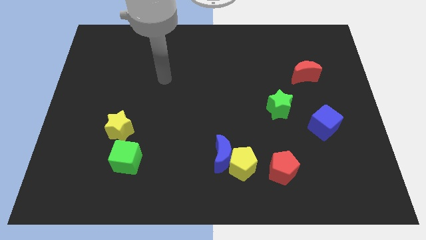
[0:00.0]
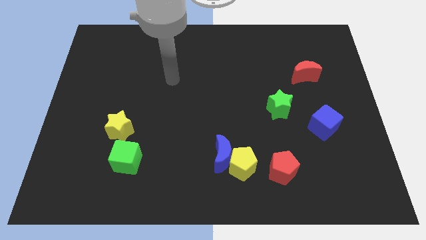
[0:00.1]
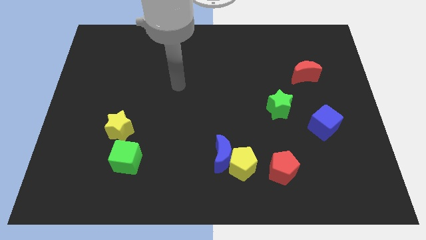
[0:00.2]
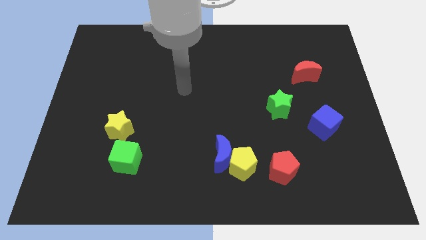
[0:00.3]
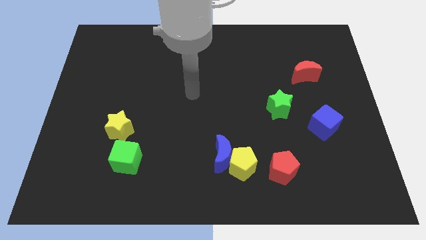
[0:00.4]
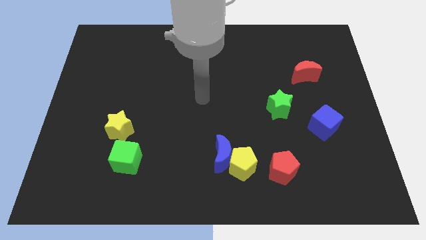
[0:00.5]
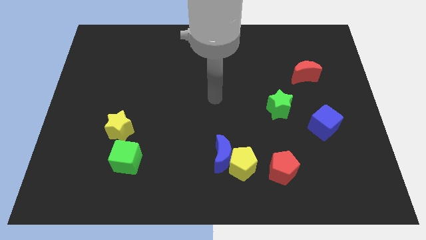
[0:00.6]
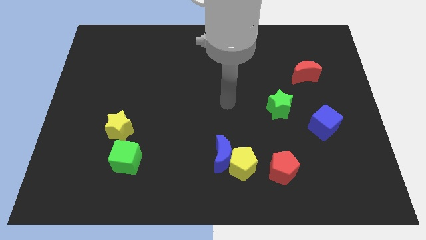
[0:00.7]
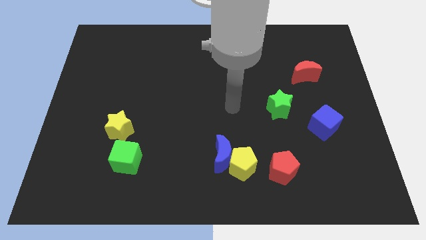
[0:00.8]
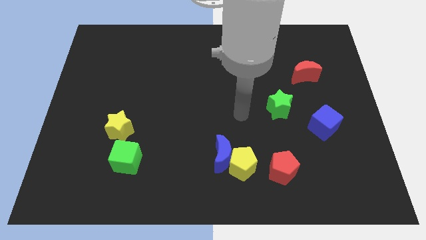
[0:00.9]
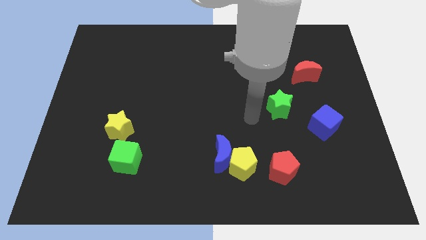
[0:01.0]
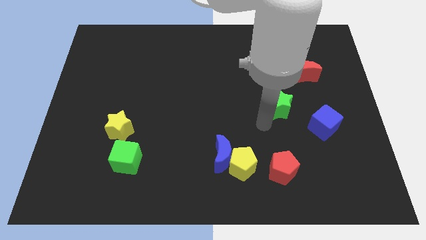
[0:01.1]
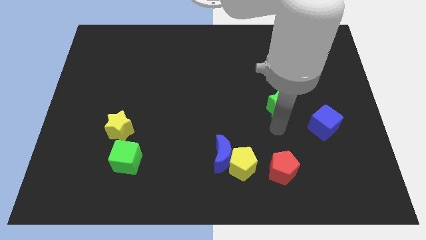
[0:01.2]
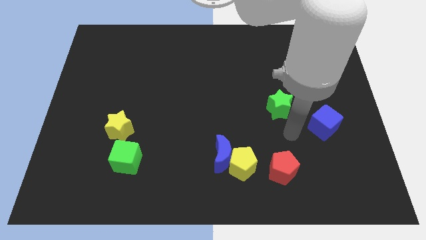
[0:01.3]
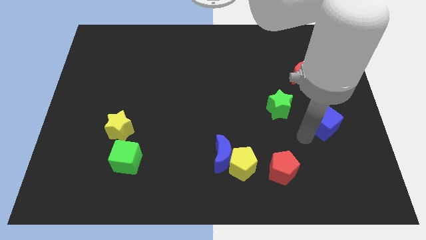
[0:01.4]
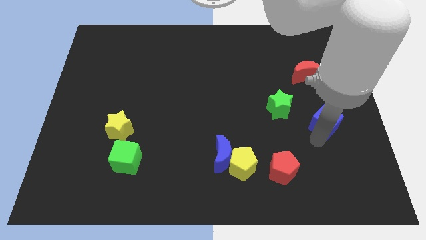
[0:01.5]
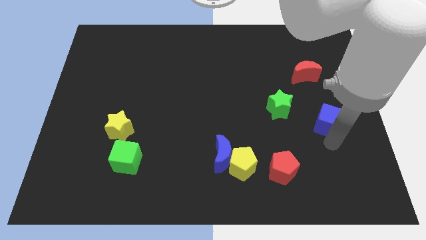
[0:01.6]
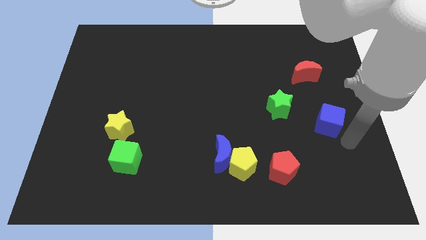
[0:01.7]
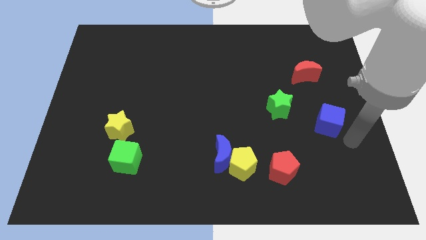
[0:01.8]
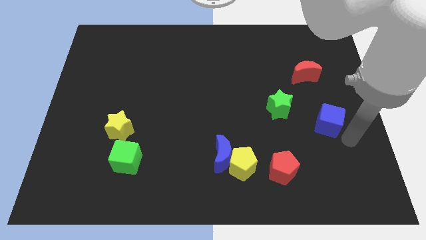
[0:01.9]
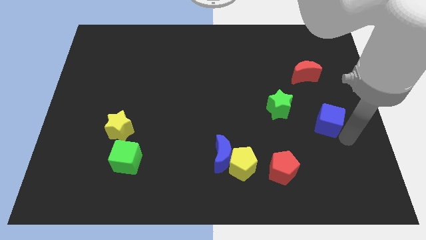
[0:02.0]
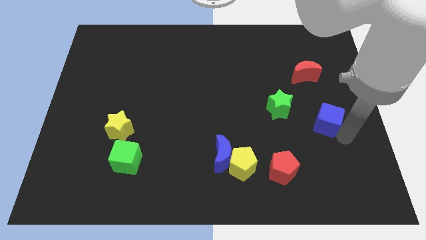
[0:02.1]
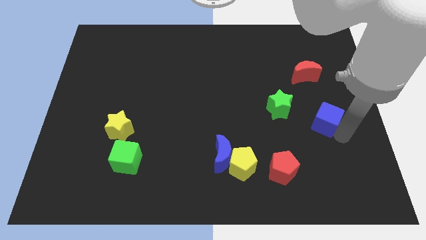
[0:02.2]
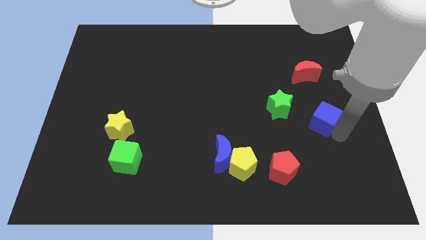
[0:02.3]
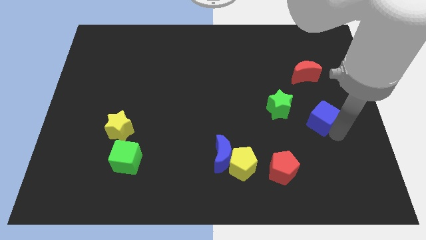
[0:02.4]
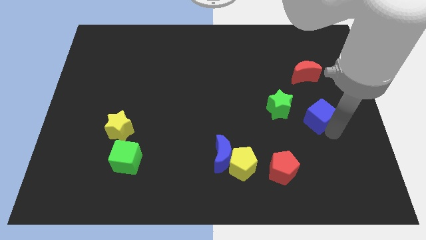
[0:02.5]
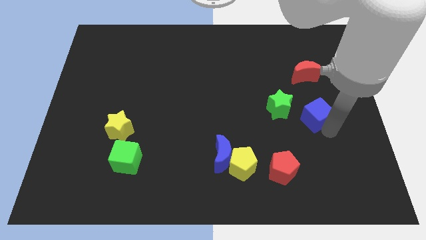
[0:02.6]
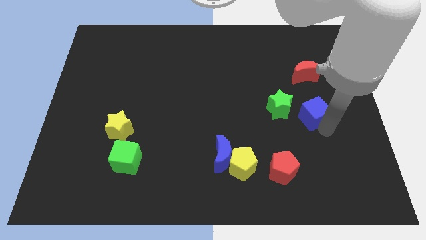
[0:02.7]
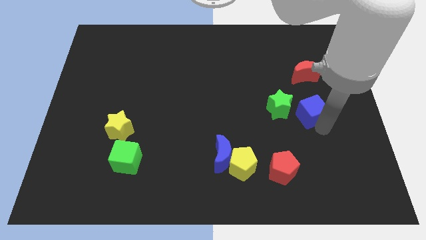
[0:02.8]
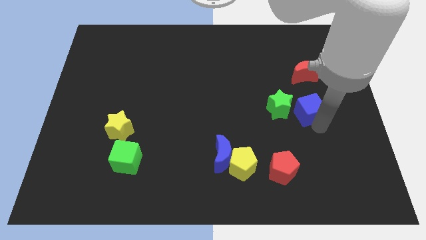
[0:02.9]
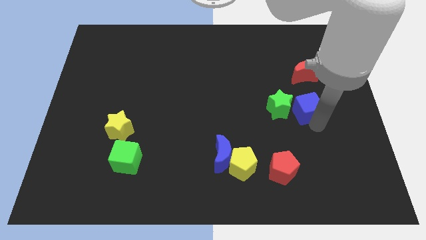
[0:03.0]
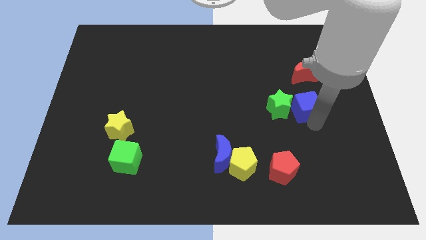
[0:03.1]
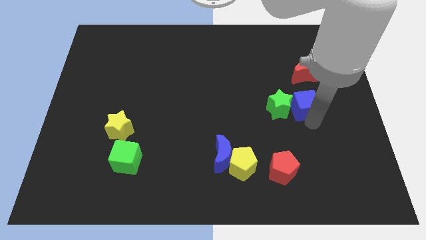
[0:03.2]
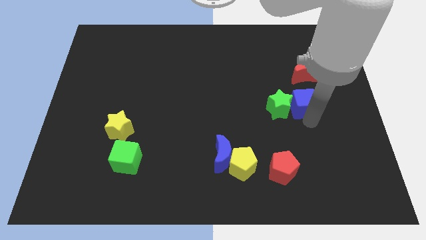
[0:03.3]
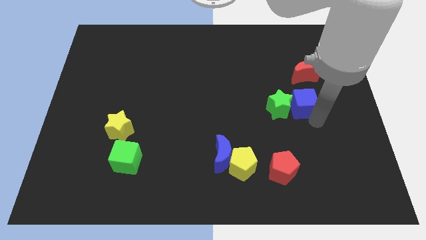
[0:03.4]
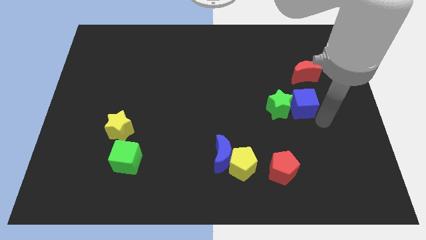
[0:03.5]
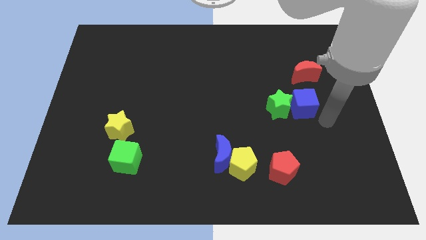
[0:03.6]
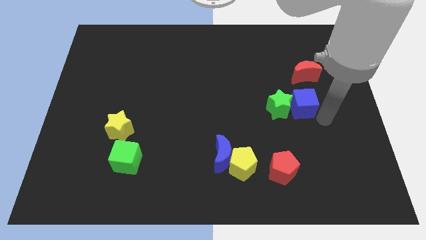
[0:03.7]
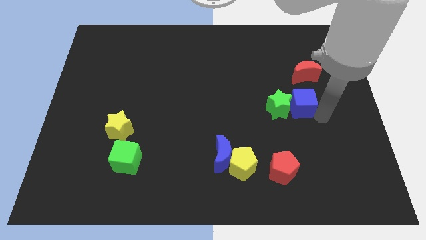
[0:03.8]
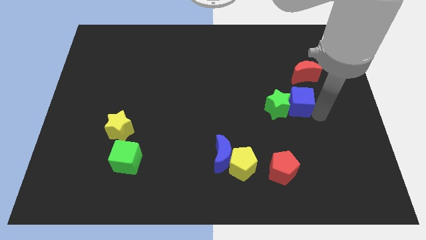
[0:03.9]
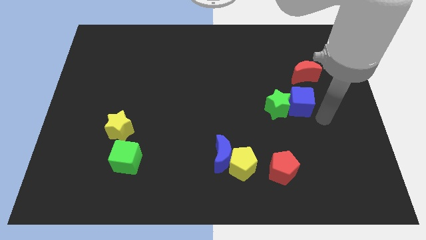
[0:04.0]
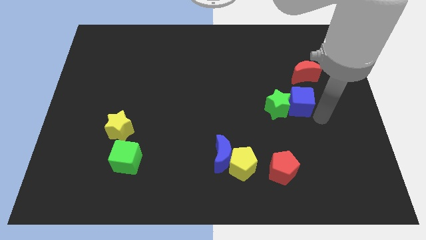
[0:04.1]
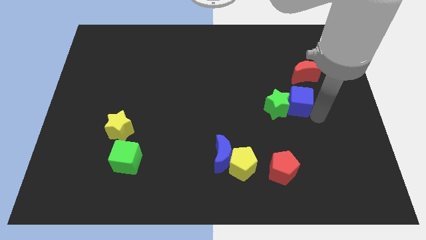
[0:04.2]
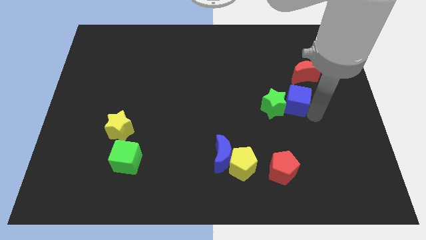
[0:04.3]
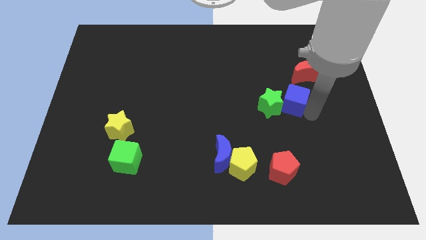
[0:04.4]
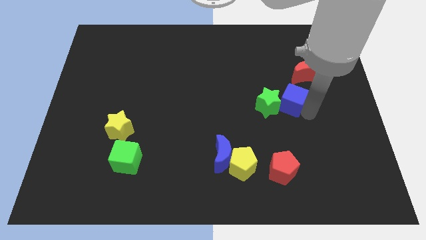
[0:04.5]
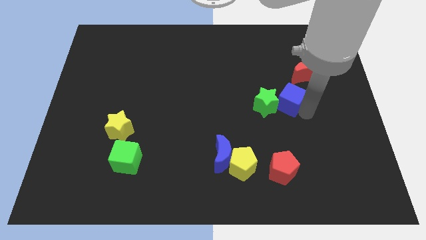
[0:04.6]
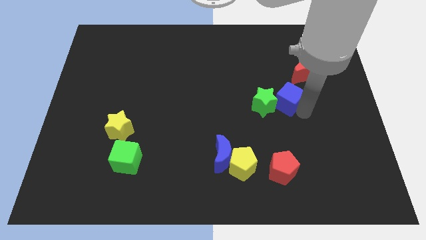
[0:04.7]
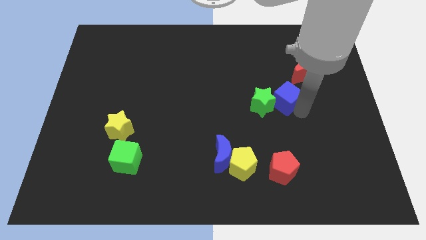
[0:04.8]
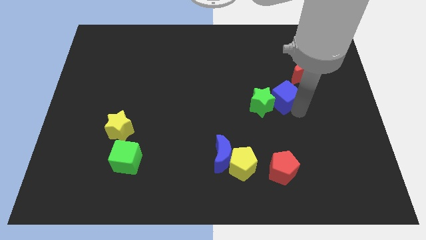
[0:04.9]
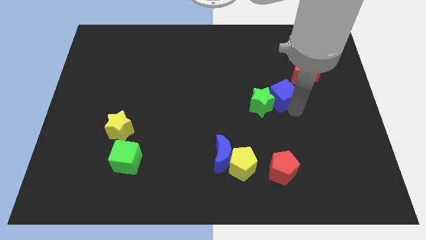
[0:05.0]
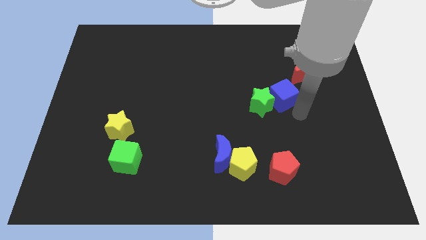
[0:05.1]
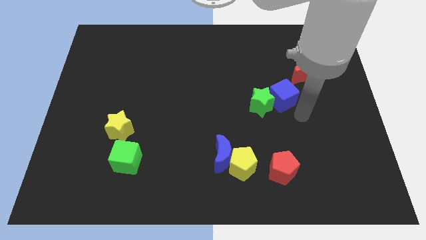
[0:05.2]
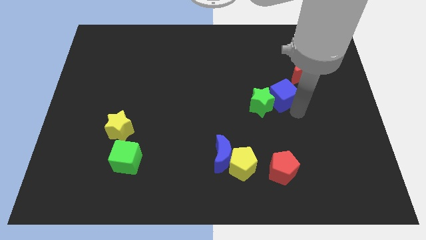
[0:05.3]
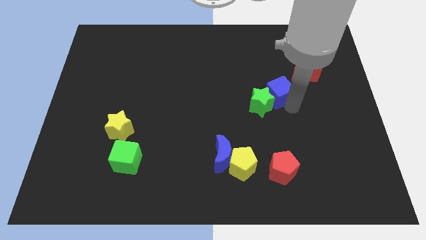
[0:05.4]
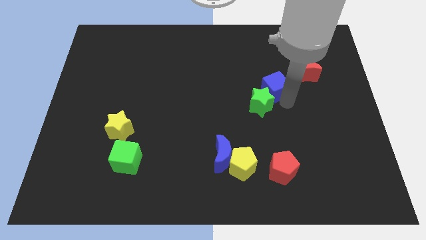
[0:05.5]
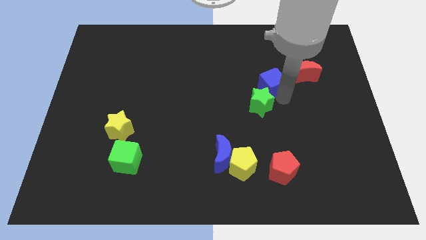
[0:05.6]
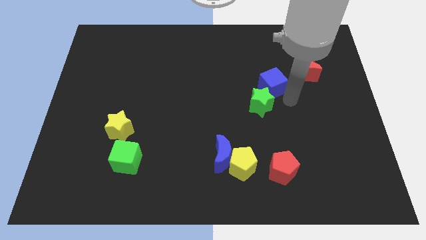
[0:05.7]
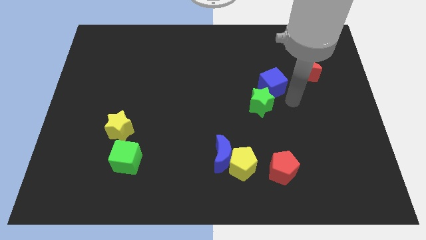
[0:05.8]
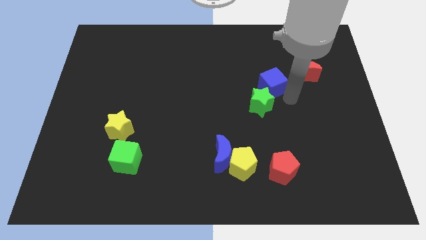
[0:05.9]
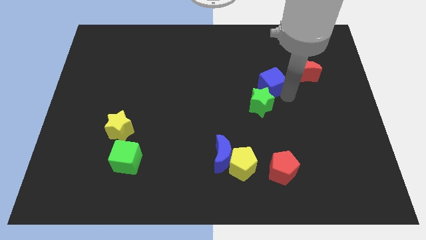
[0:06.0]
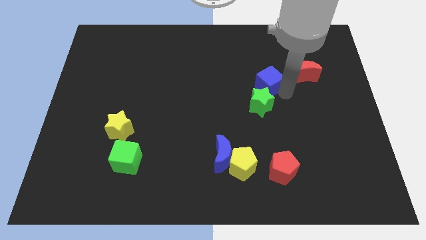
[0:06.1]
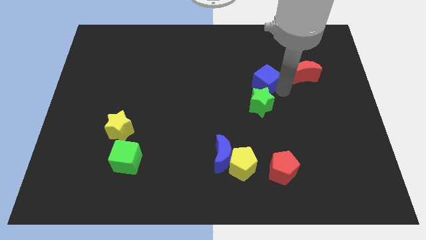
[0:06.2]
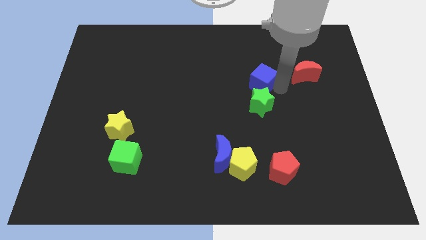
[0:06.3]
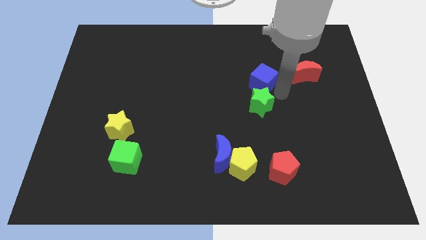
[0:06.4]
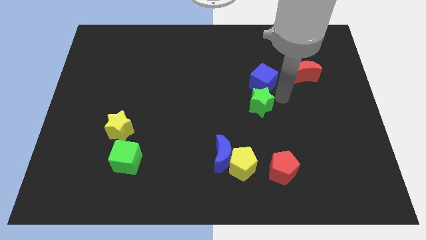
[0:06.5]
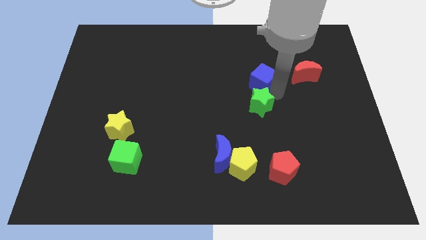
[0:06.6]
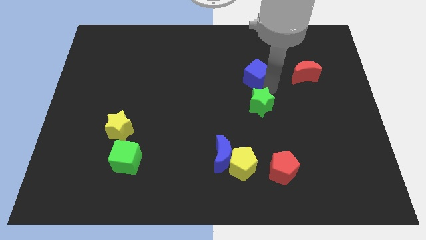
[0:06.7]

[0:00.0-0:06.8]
move the blue cube upwards and then left

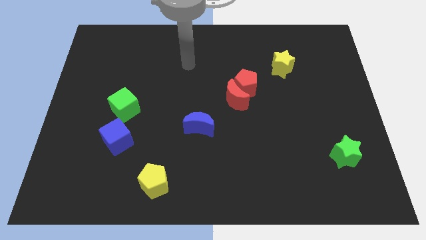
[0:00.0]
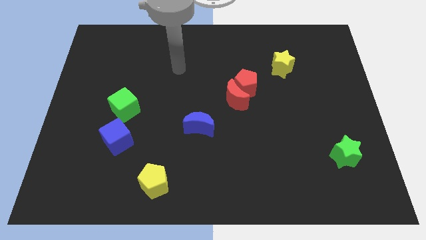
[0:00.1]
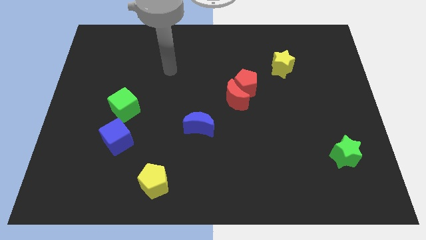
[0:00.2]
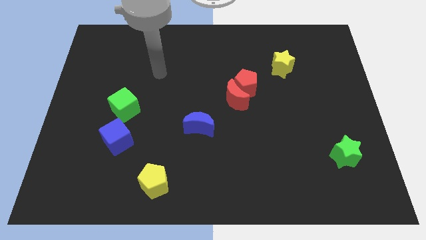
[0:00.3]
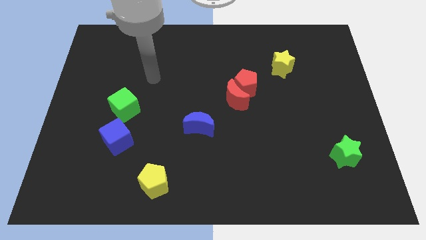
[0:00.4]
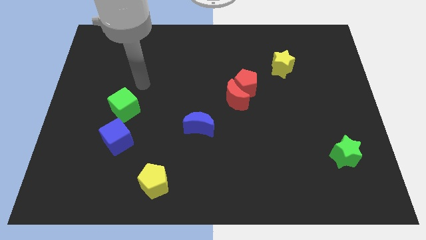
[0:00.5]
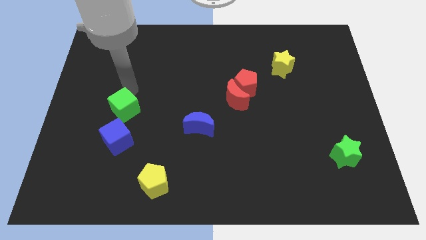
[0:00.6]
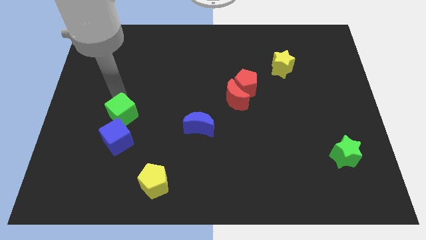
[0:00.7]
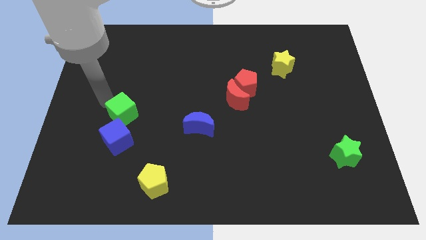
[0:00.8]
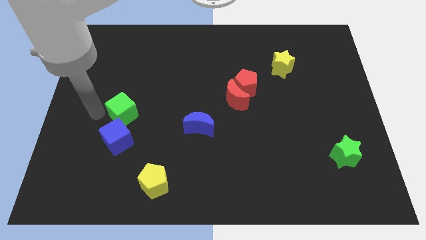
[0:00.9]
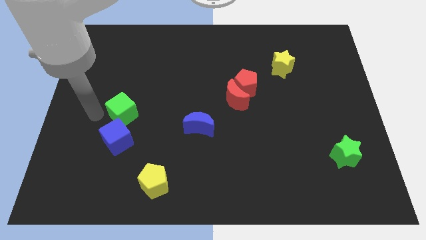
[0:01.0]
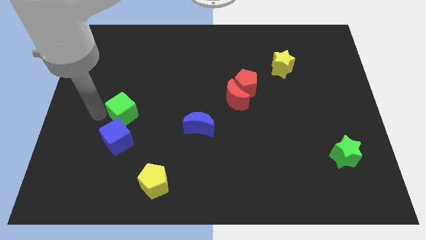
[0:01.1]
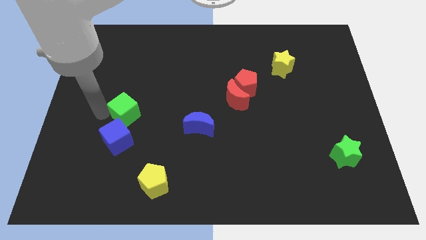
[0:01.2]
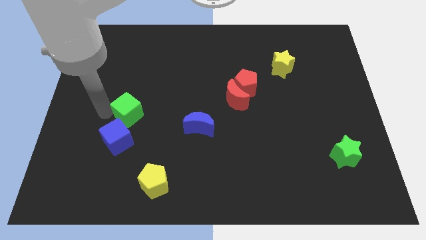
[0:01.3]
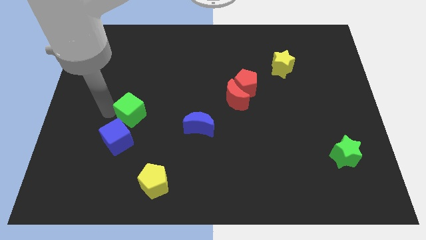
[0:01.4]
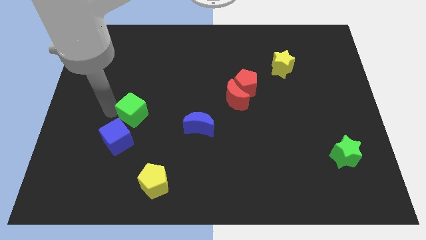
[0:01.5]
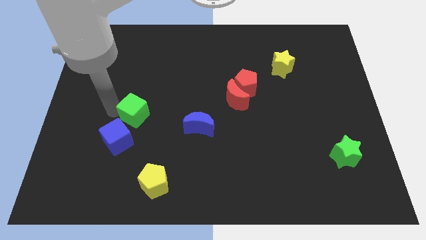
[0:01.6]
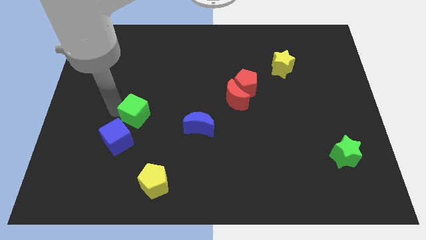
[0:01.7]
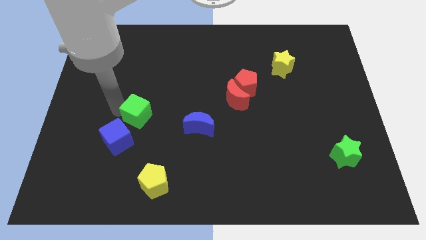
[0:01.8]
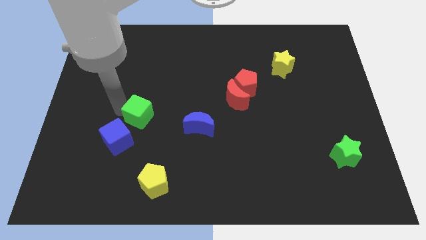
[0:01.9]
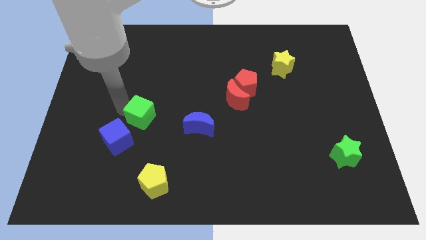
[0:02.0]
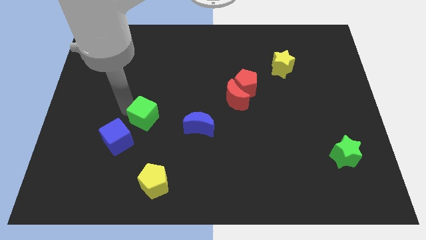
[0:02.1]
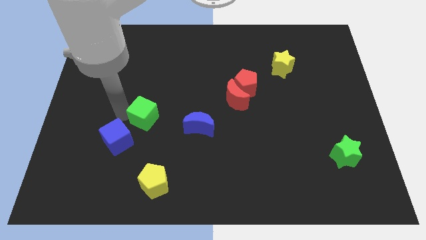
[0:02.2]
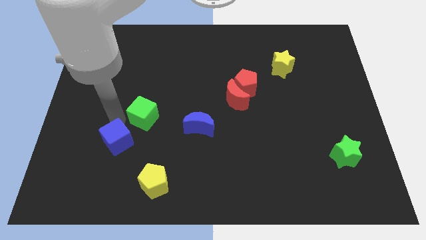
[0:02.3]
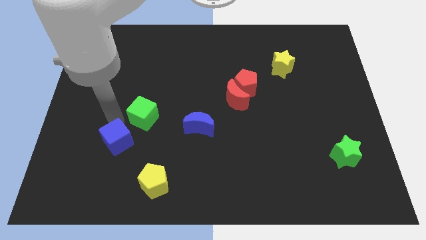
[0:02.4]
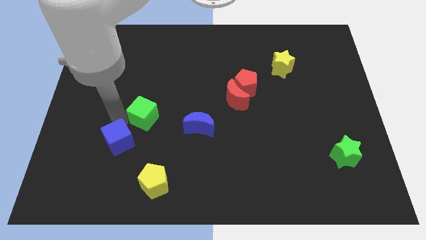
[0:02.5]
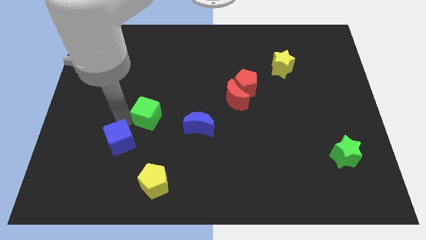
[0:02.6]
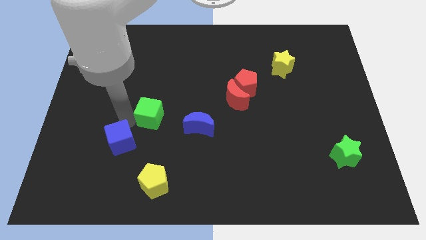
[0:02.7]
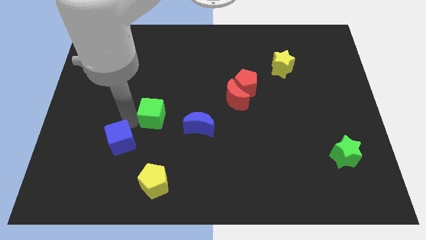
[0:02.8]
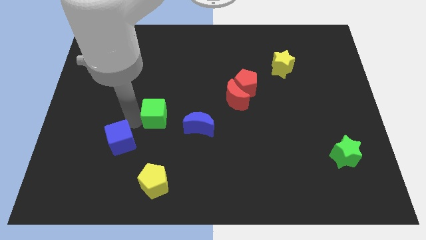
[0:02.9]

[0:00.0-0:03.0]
slightly slide the green cube right
